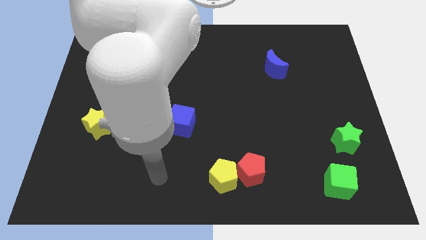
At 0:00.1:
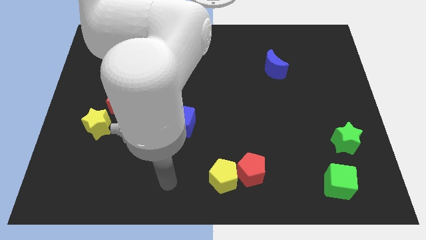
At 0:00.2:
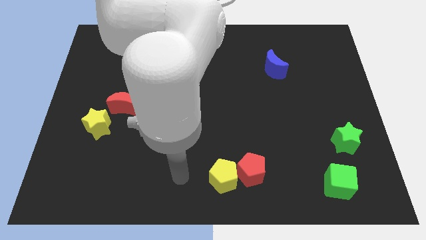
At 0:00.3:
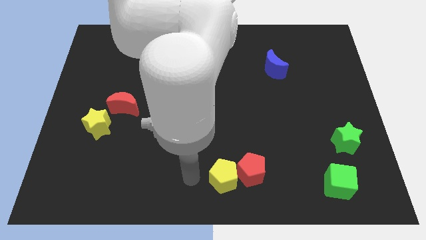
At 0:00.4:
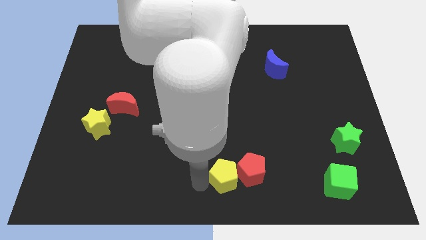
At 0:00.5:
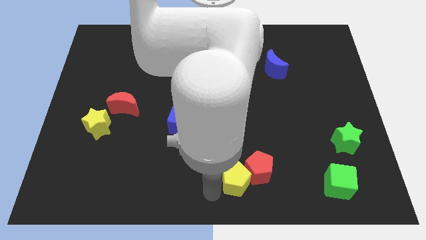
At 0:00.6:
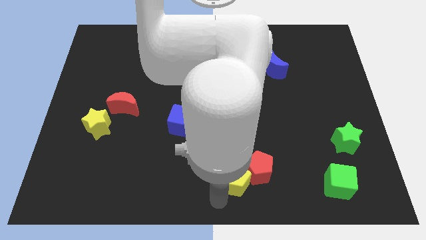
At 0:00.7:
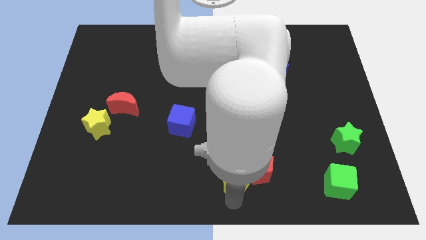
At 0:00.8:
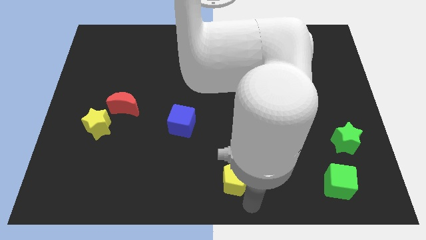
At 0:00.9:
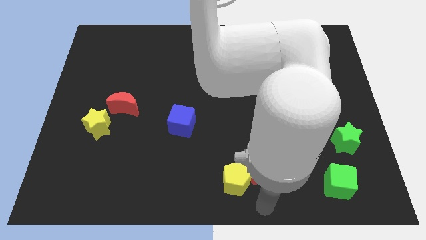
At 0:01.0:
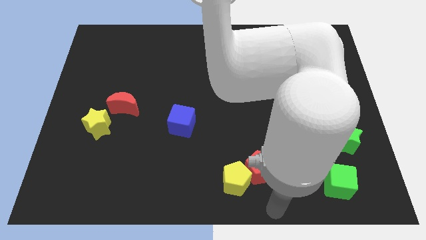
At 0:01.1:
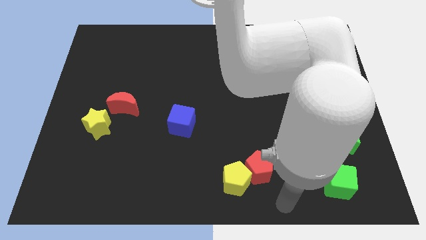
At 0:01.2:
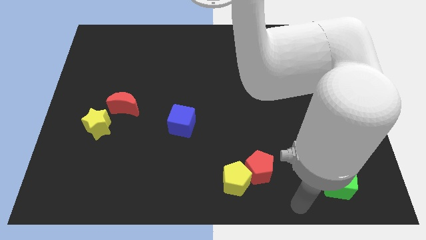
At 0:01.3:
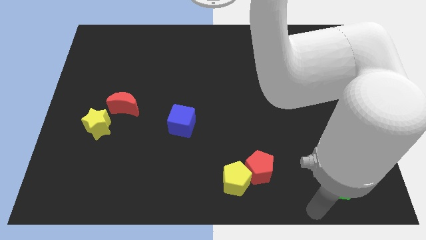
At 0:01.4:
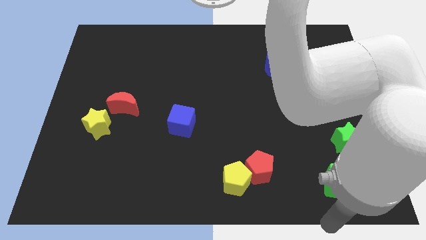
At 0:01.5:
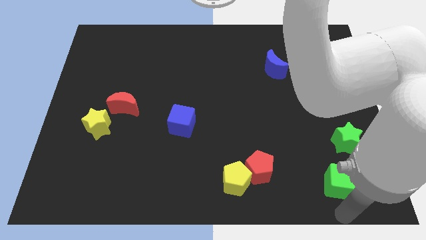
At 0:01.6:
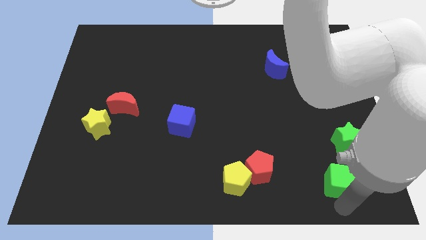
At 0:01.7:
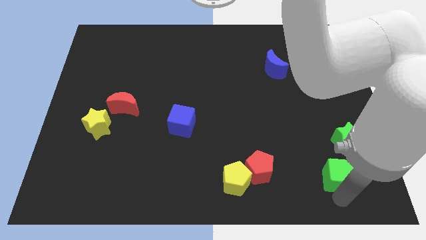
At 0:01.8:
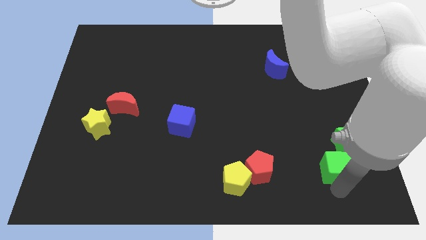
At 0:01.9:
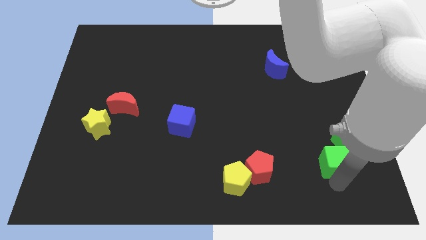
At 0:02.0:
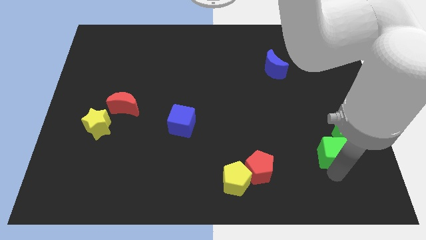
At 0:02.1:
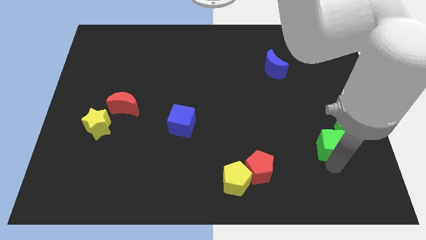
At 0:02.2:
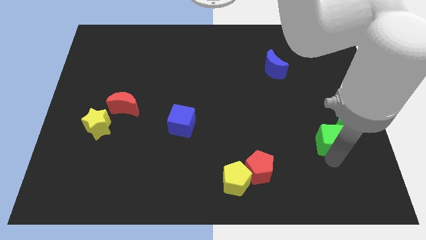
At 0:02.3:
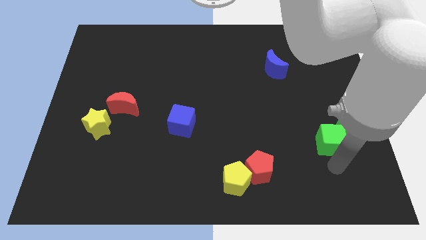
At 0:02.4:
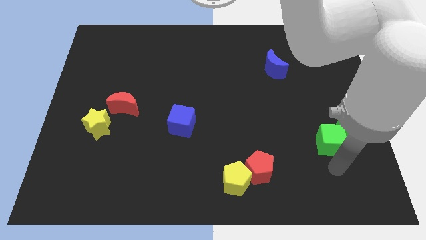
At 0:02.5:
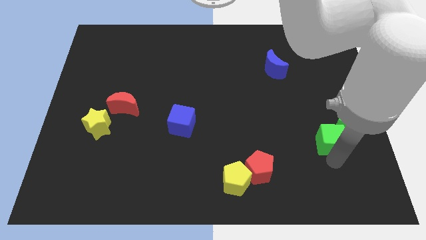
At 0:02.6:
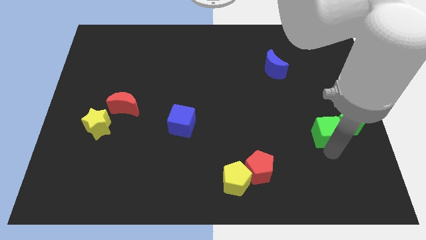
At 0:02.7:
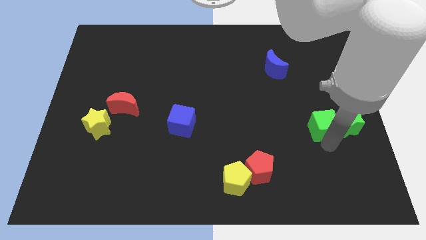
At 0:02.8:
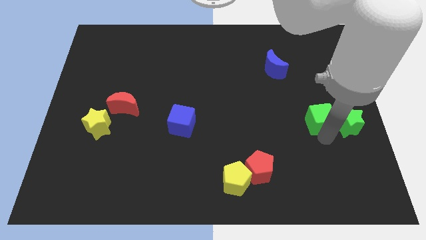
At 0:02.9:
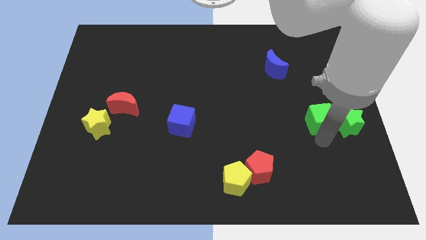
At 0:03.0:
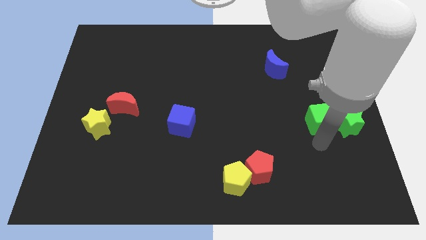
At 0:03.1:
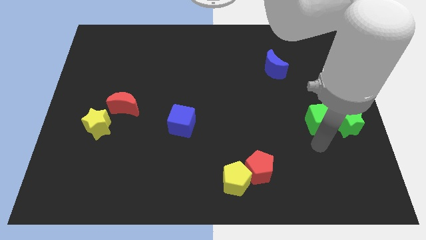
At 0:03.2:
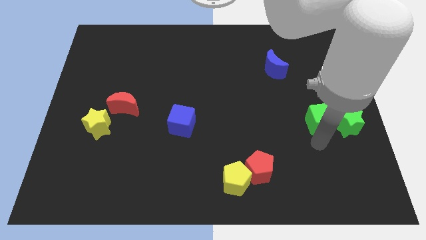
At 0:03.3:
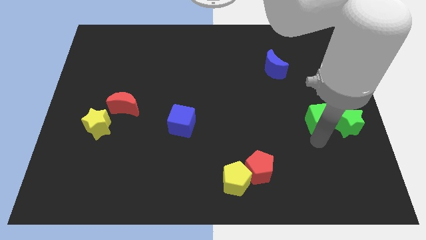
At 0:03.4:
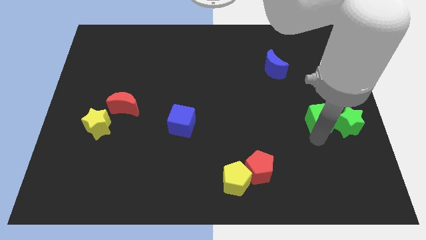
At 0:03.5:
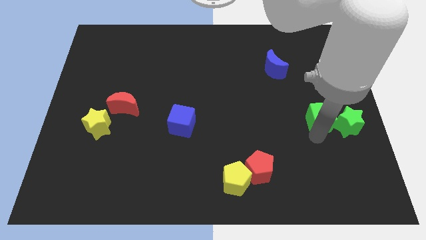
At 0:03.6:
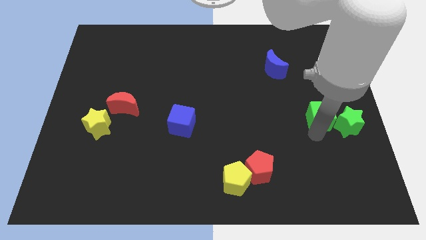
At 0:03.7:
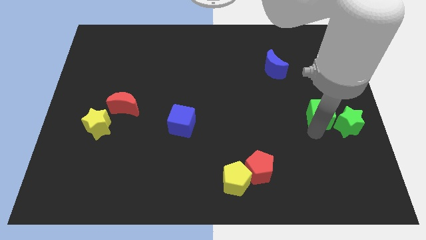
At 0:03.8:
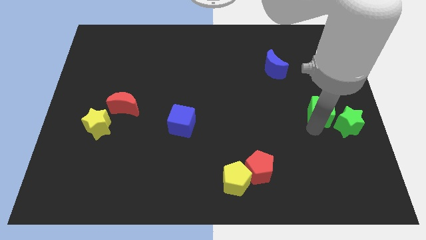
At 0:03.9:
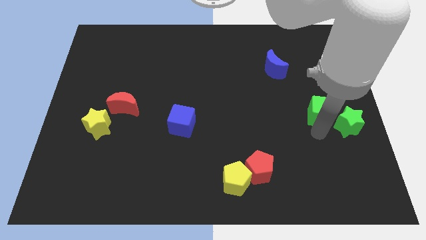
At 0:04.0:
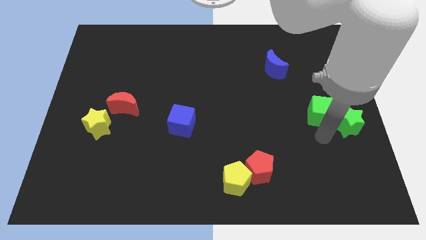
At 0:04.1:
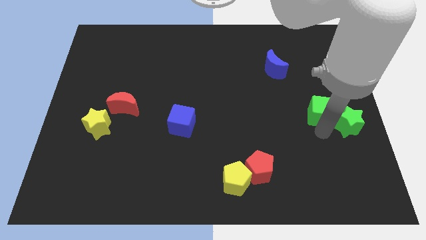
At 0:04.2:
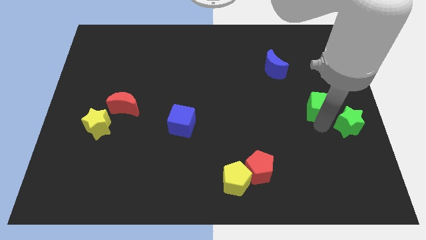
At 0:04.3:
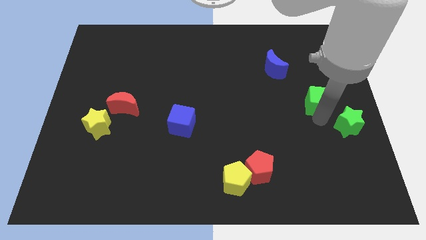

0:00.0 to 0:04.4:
push the green cube up

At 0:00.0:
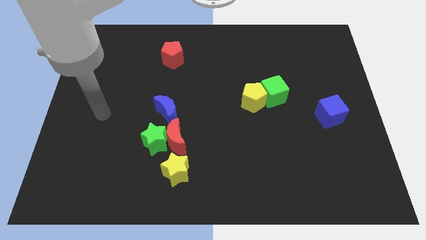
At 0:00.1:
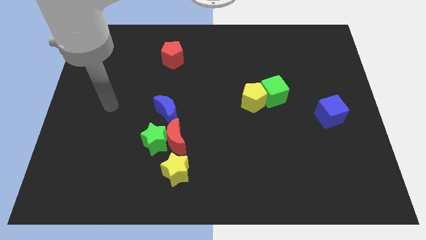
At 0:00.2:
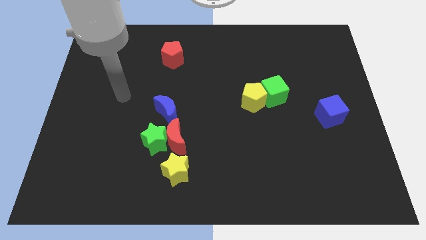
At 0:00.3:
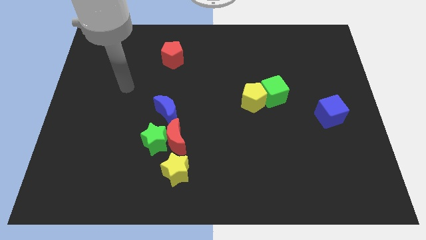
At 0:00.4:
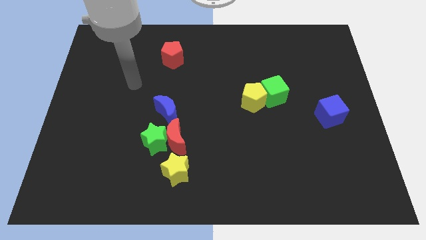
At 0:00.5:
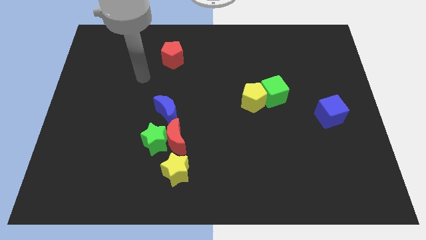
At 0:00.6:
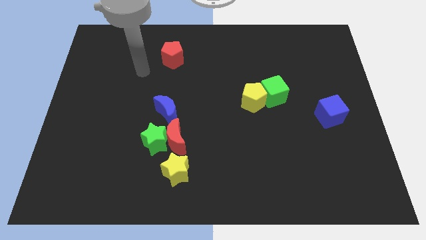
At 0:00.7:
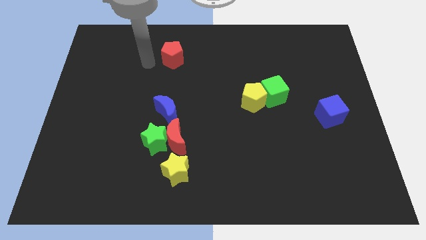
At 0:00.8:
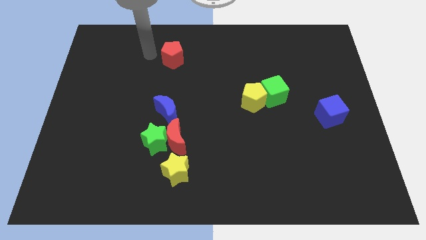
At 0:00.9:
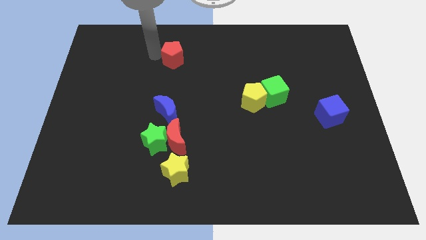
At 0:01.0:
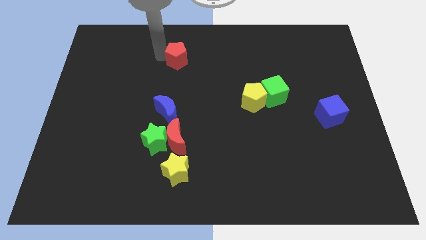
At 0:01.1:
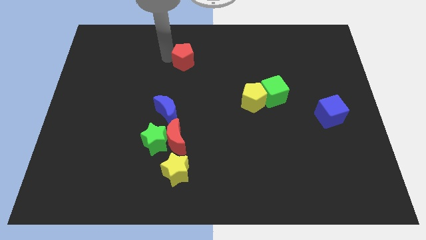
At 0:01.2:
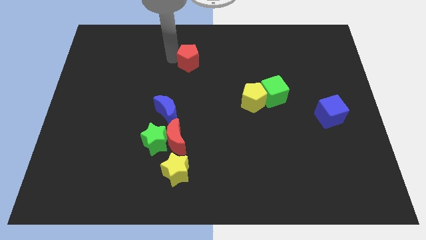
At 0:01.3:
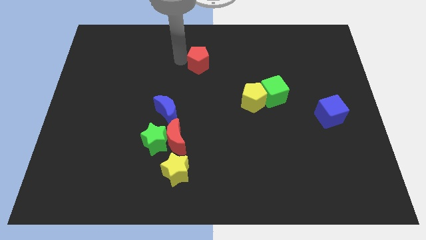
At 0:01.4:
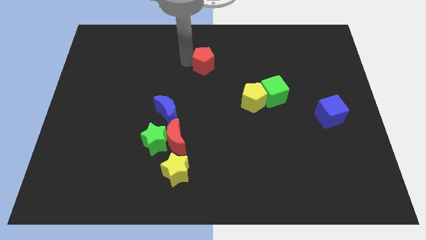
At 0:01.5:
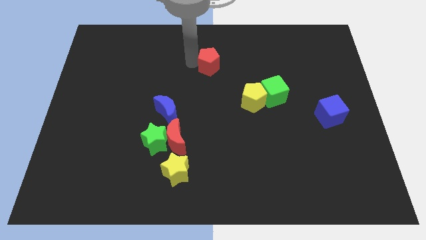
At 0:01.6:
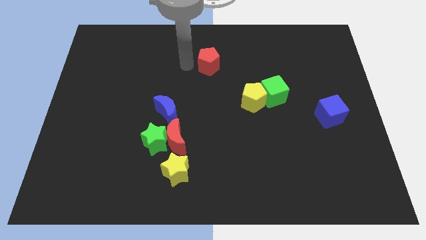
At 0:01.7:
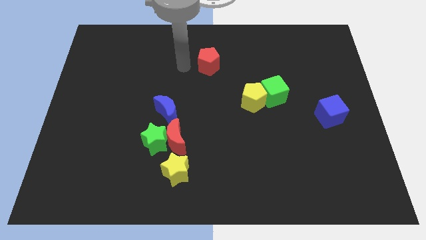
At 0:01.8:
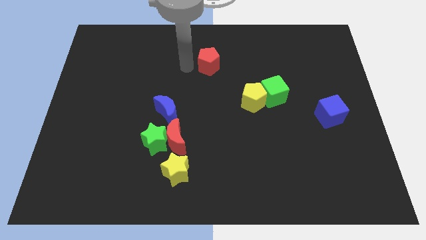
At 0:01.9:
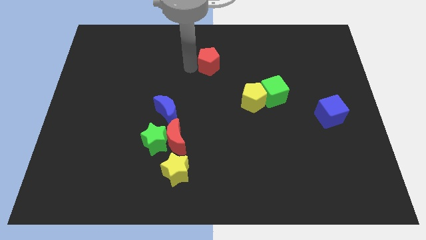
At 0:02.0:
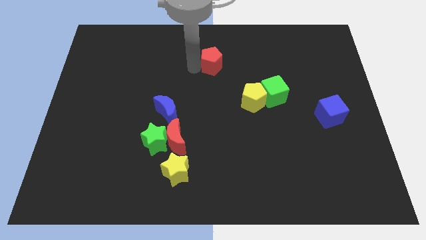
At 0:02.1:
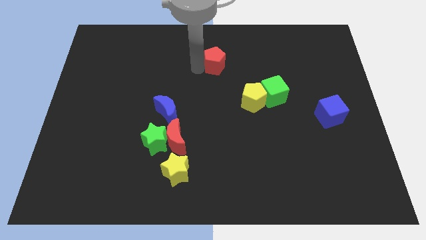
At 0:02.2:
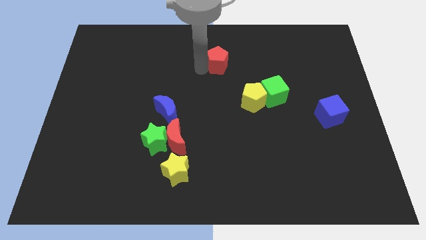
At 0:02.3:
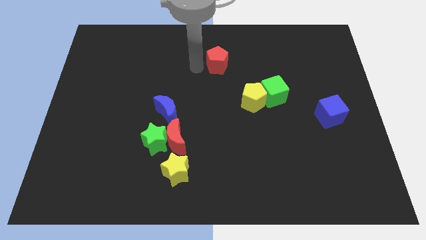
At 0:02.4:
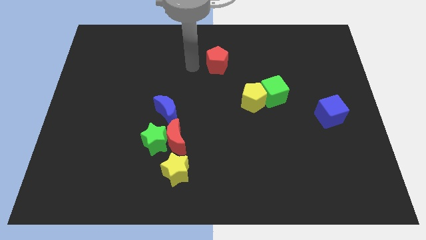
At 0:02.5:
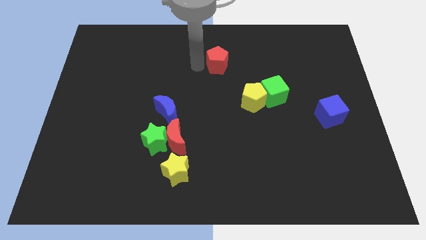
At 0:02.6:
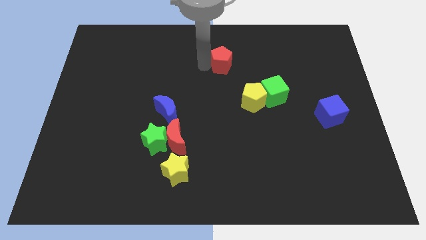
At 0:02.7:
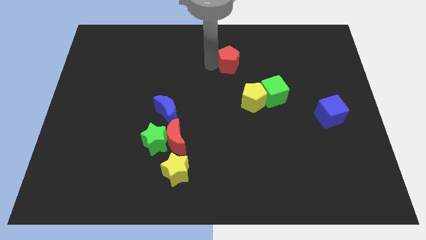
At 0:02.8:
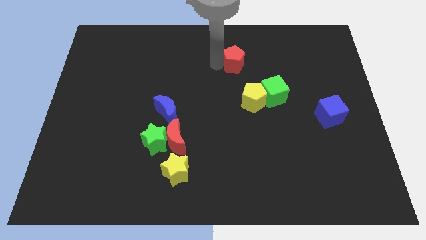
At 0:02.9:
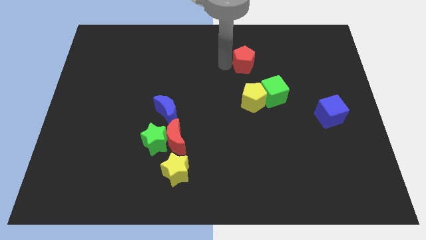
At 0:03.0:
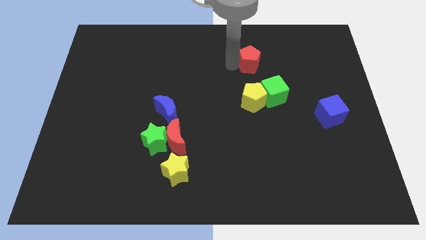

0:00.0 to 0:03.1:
slide the red pentagon to the right

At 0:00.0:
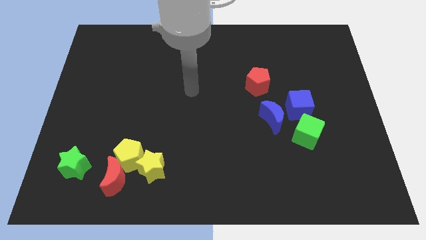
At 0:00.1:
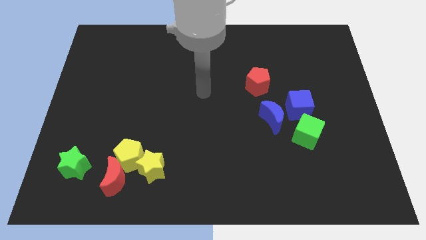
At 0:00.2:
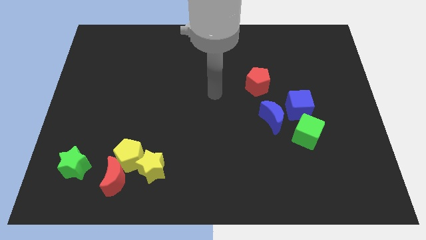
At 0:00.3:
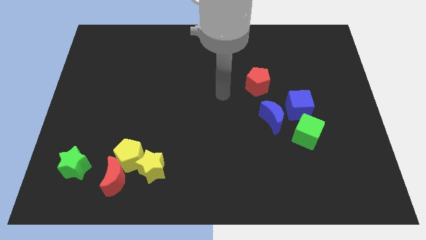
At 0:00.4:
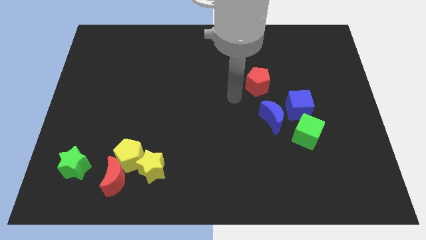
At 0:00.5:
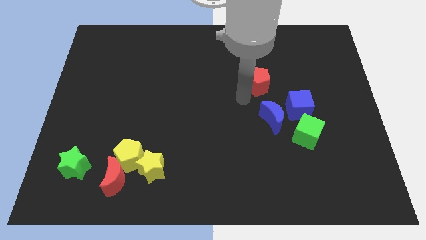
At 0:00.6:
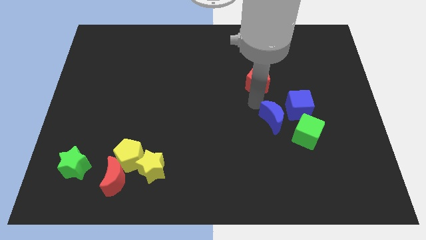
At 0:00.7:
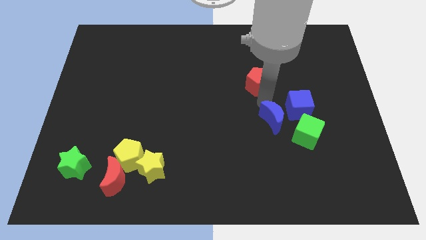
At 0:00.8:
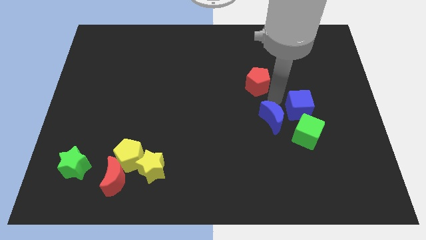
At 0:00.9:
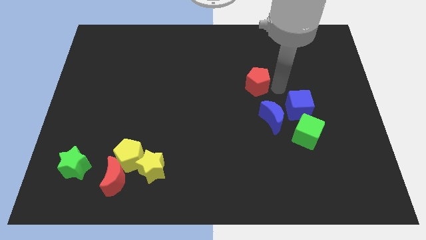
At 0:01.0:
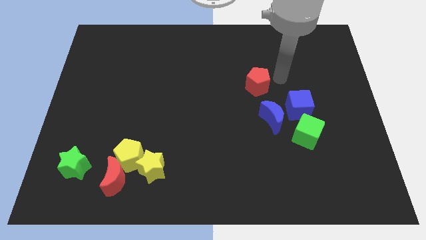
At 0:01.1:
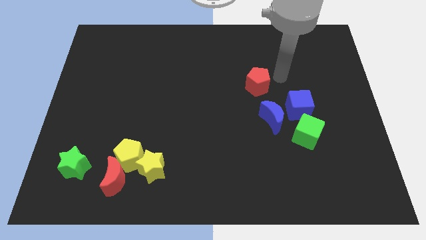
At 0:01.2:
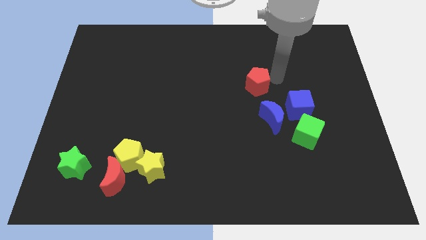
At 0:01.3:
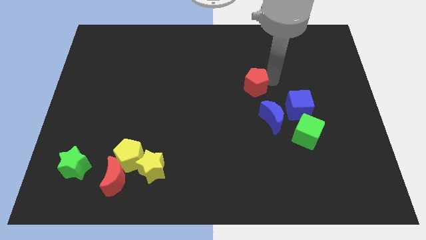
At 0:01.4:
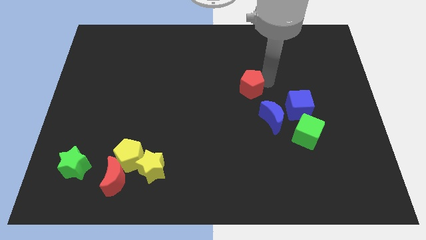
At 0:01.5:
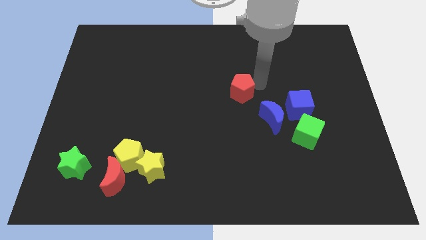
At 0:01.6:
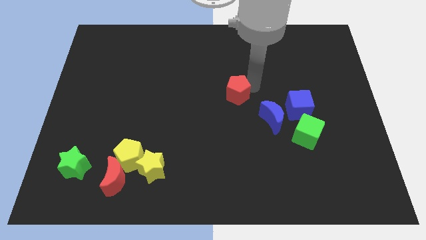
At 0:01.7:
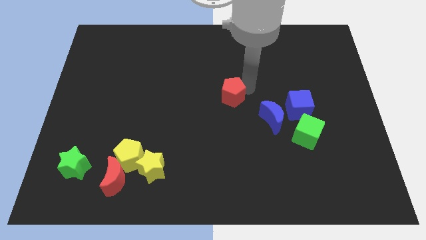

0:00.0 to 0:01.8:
slide the red pentagon down and left diagonally slightly
